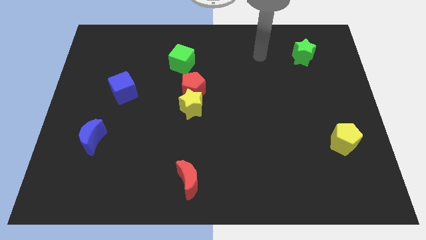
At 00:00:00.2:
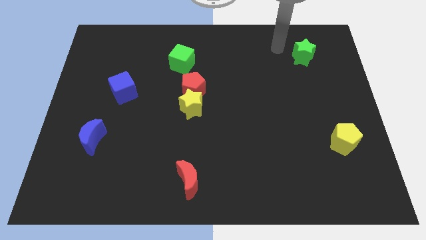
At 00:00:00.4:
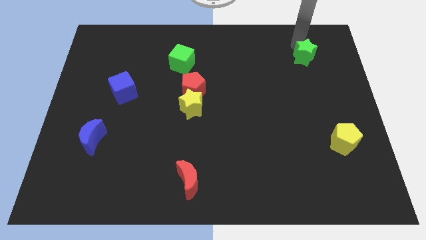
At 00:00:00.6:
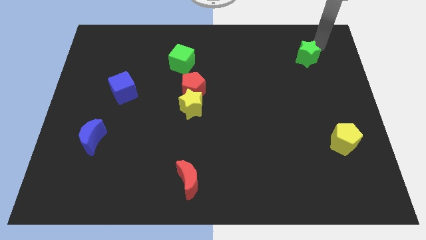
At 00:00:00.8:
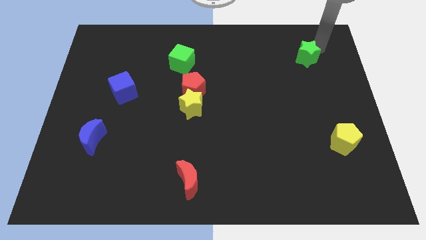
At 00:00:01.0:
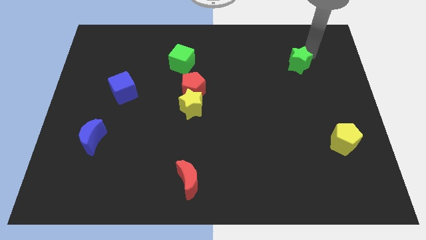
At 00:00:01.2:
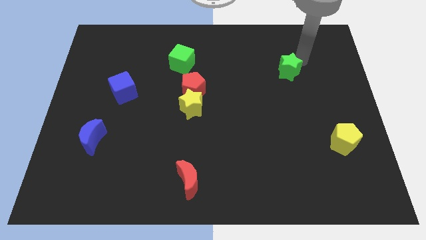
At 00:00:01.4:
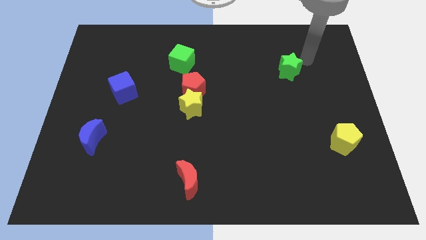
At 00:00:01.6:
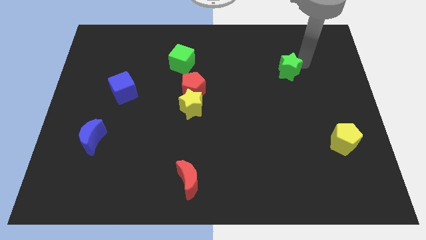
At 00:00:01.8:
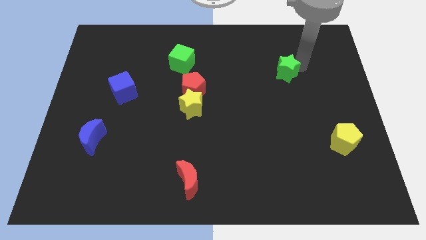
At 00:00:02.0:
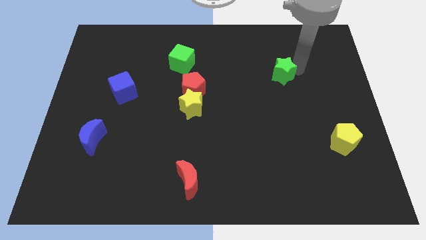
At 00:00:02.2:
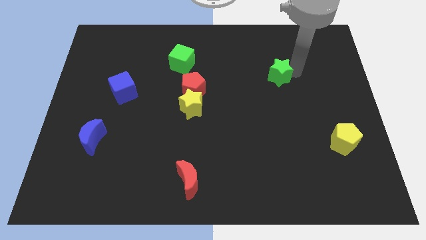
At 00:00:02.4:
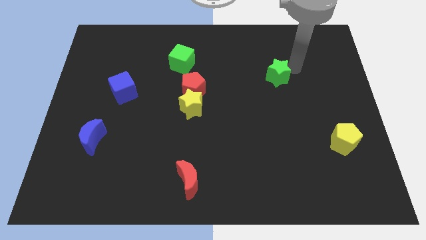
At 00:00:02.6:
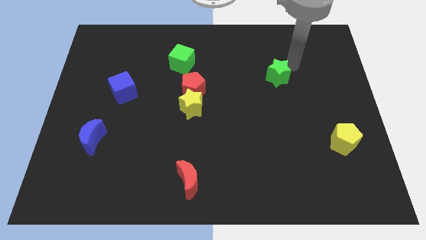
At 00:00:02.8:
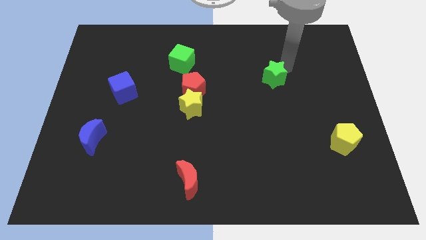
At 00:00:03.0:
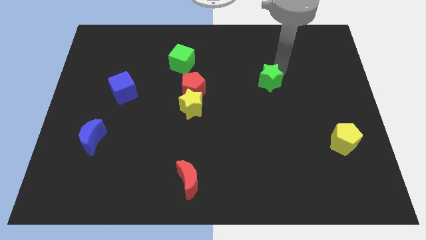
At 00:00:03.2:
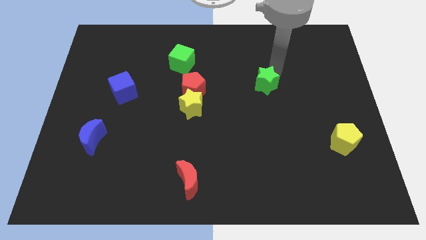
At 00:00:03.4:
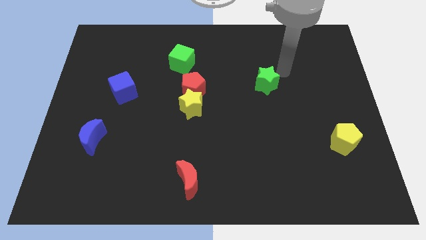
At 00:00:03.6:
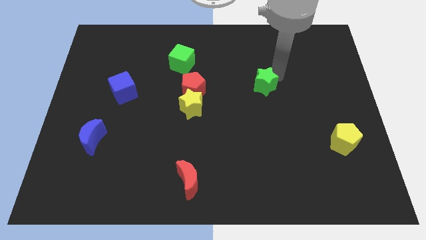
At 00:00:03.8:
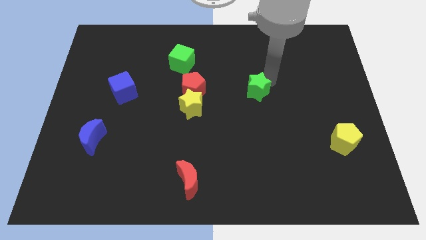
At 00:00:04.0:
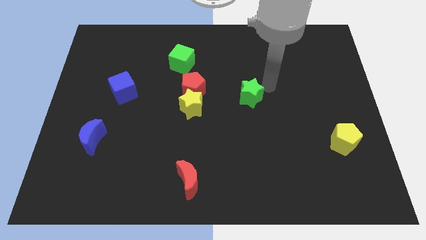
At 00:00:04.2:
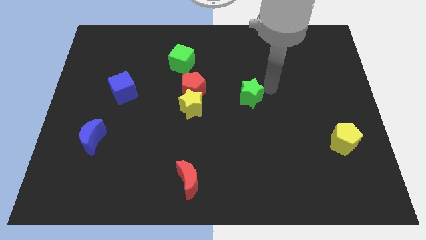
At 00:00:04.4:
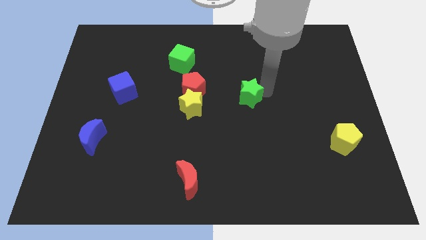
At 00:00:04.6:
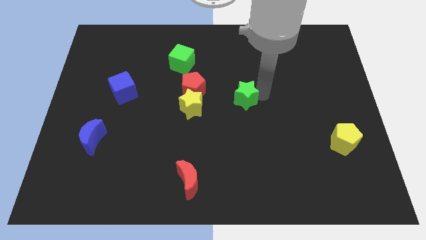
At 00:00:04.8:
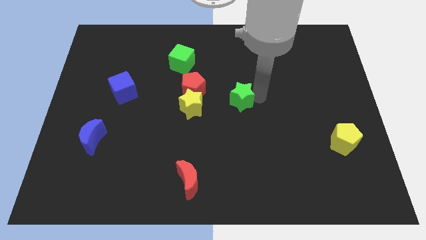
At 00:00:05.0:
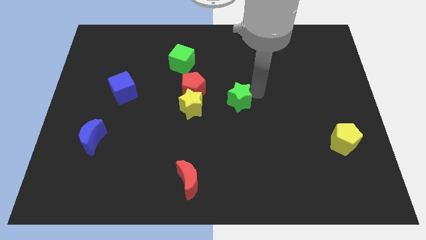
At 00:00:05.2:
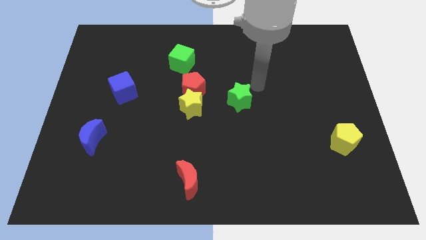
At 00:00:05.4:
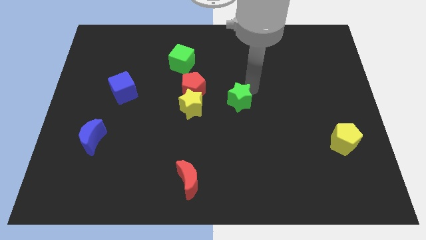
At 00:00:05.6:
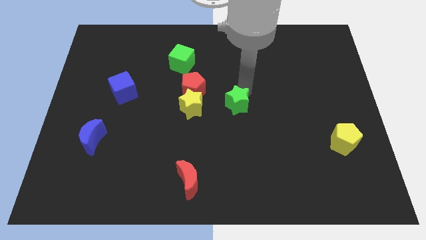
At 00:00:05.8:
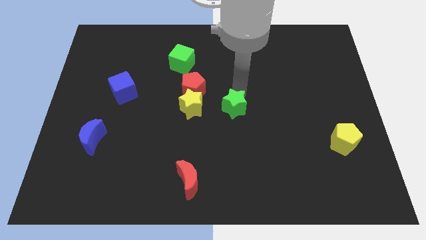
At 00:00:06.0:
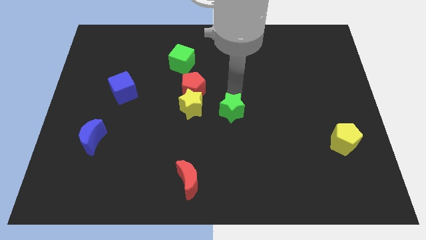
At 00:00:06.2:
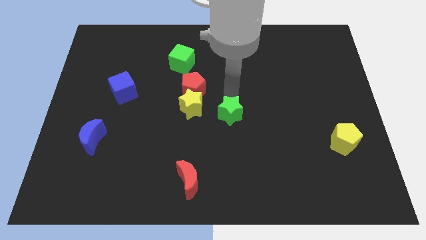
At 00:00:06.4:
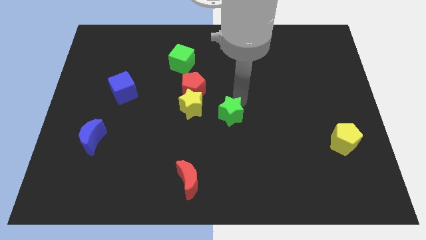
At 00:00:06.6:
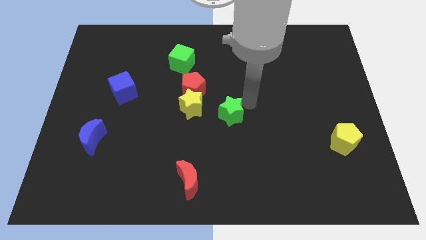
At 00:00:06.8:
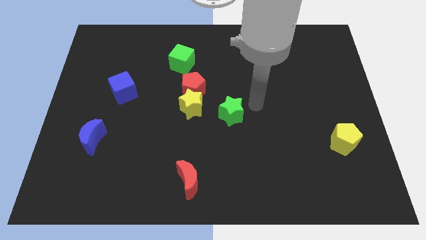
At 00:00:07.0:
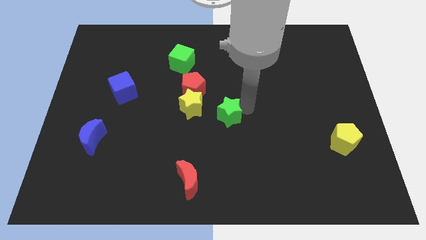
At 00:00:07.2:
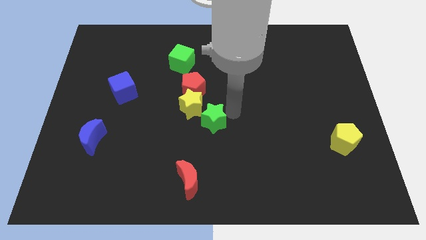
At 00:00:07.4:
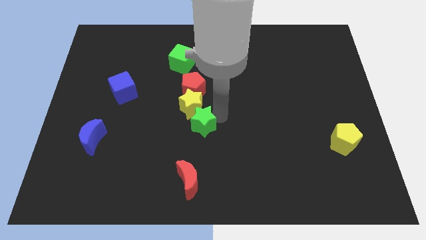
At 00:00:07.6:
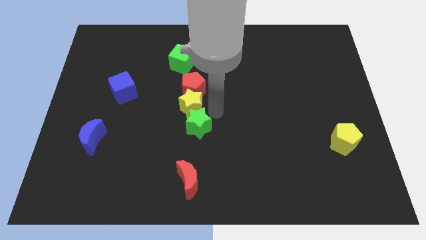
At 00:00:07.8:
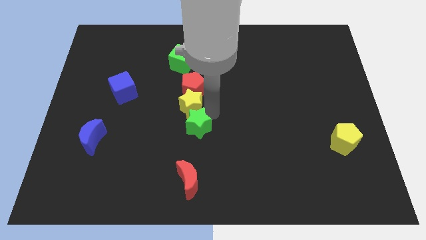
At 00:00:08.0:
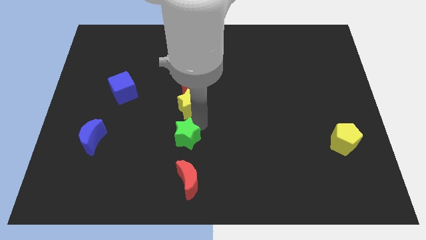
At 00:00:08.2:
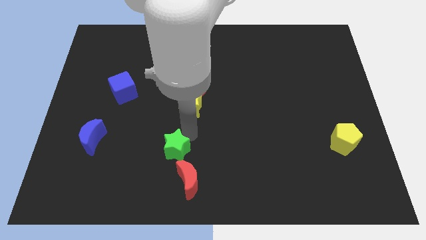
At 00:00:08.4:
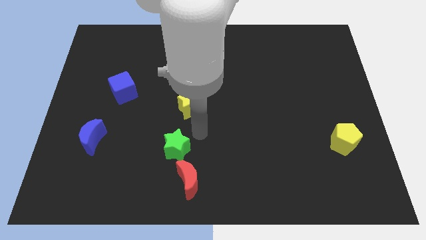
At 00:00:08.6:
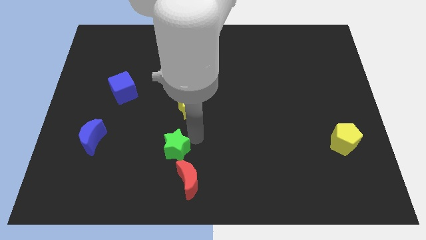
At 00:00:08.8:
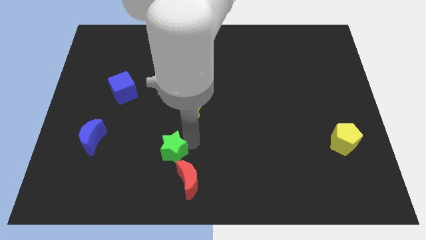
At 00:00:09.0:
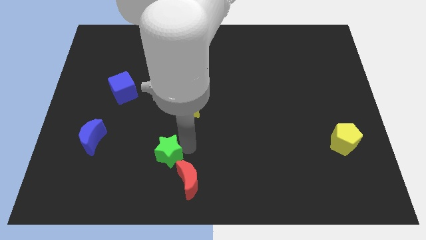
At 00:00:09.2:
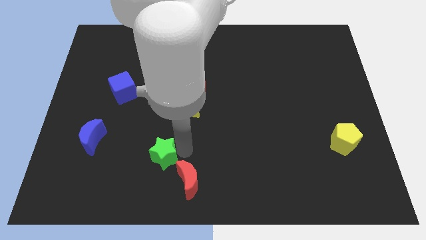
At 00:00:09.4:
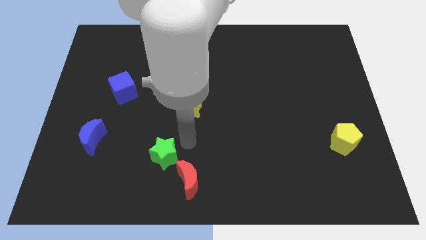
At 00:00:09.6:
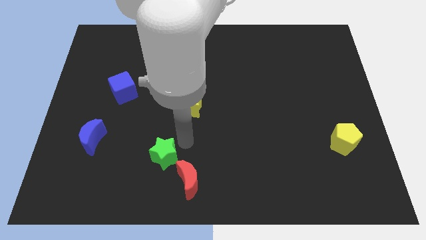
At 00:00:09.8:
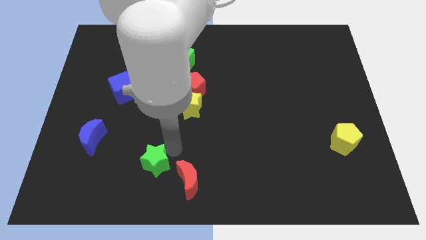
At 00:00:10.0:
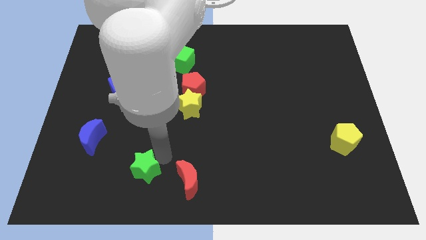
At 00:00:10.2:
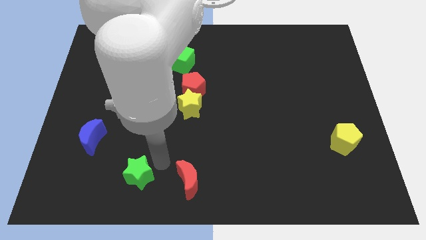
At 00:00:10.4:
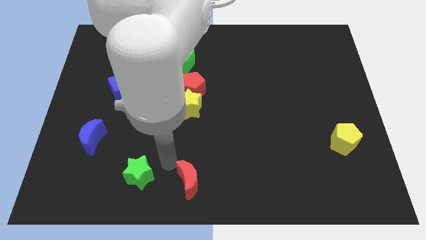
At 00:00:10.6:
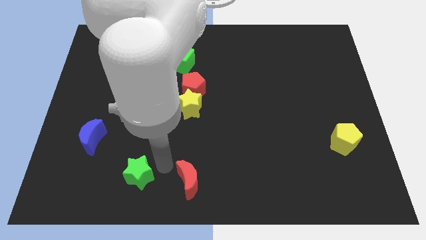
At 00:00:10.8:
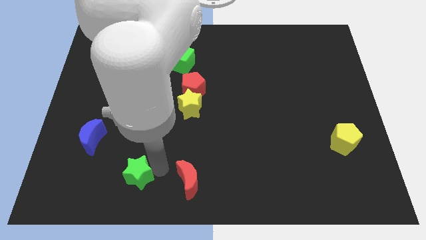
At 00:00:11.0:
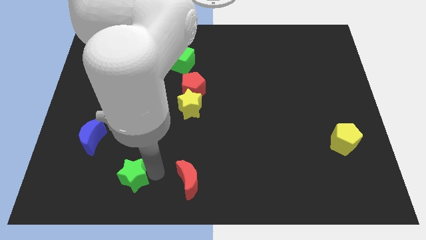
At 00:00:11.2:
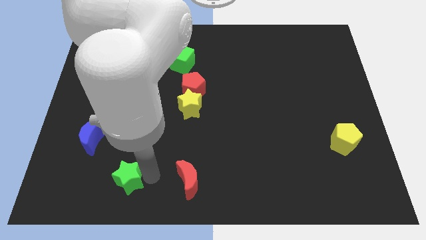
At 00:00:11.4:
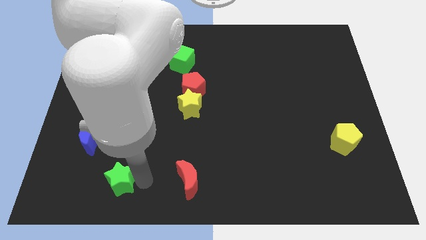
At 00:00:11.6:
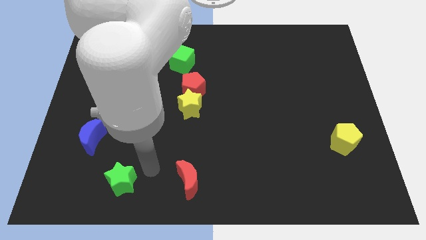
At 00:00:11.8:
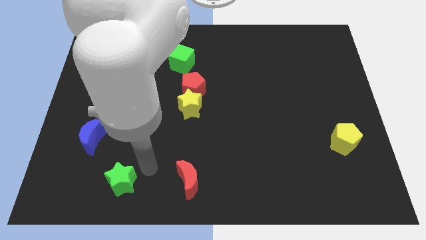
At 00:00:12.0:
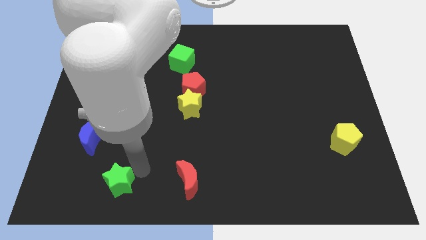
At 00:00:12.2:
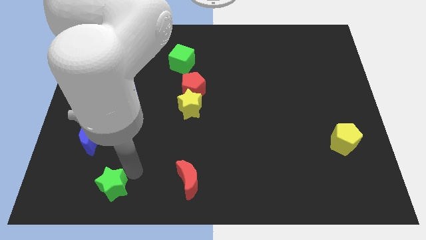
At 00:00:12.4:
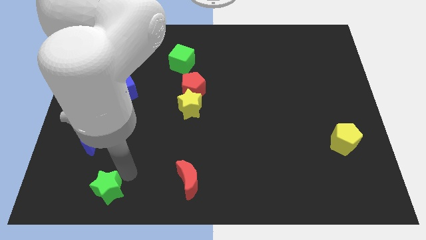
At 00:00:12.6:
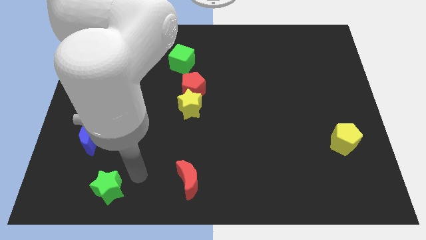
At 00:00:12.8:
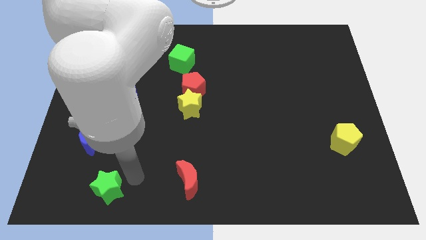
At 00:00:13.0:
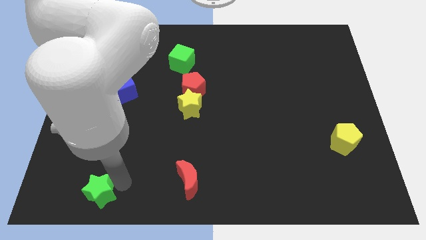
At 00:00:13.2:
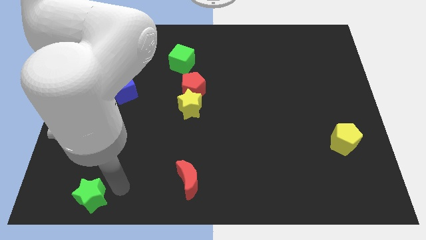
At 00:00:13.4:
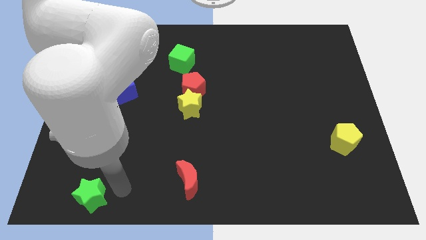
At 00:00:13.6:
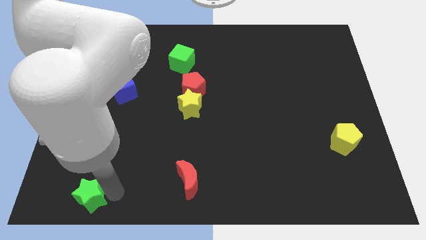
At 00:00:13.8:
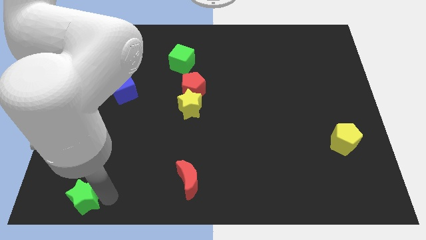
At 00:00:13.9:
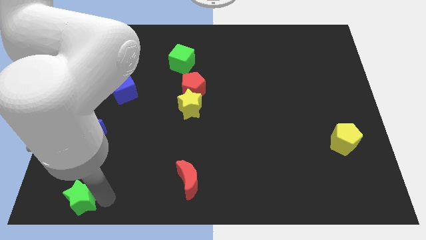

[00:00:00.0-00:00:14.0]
put the green star to the bottom left of the board
